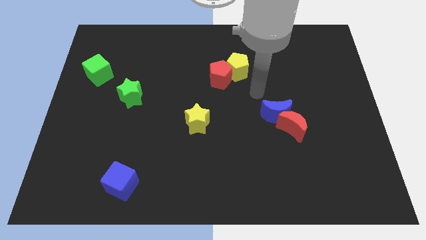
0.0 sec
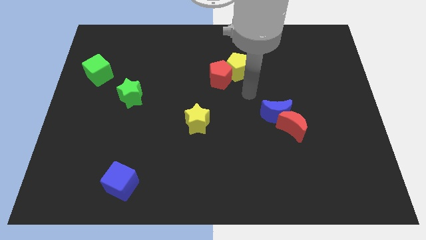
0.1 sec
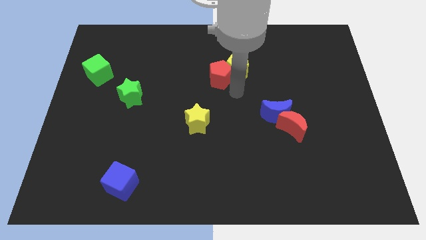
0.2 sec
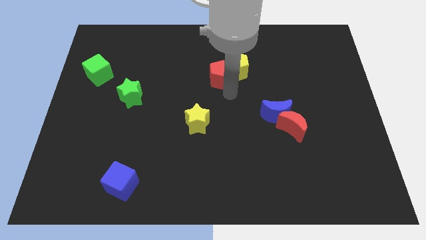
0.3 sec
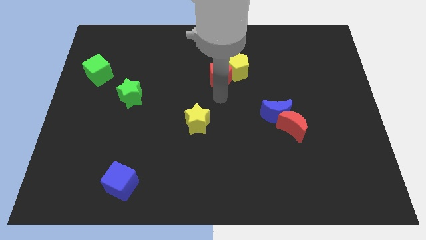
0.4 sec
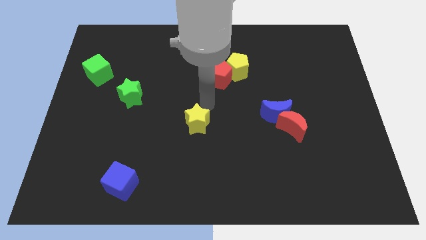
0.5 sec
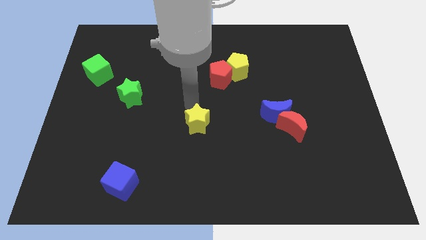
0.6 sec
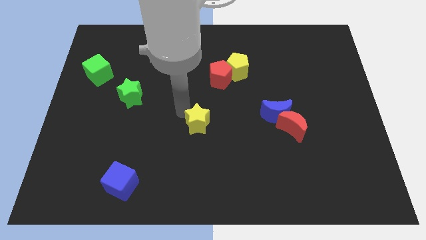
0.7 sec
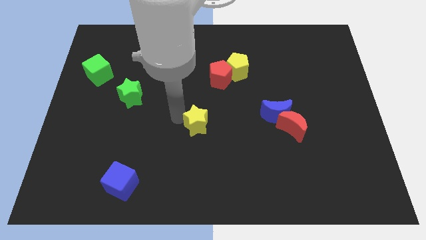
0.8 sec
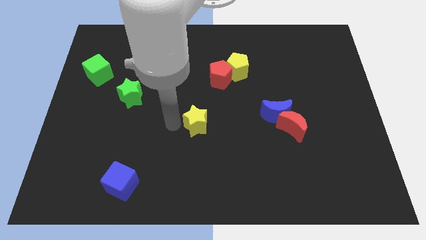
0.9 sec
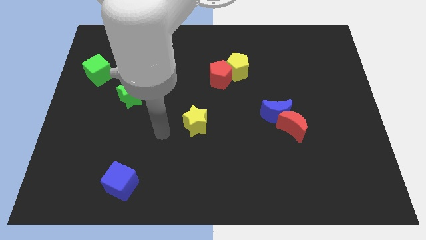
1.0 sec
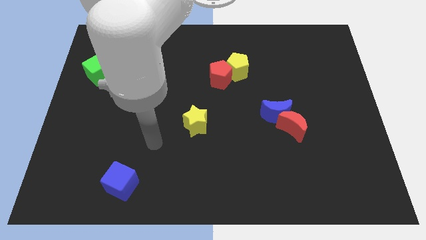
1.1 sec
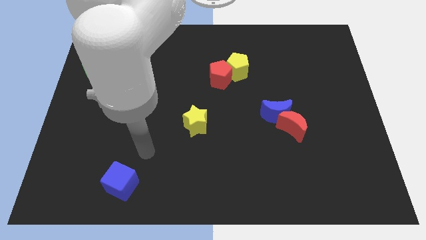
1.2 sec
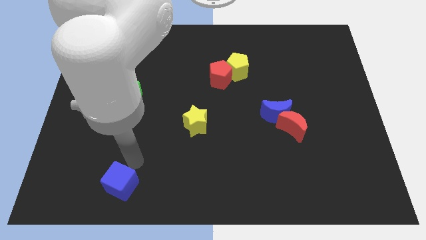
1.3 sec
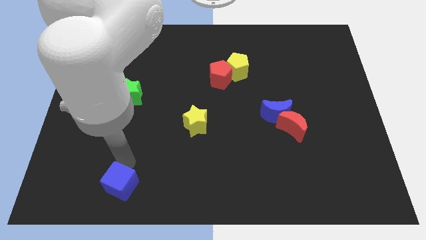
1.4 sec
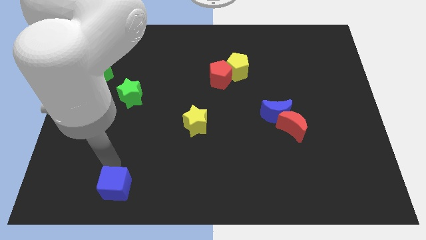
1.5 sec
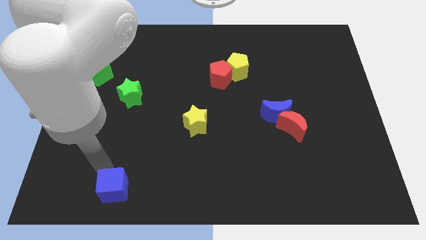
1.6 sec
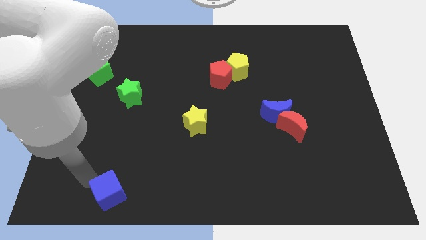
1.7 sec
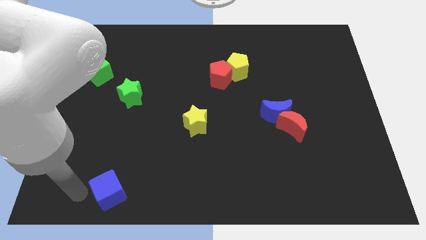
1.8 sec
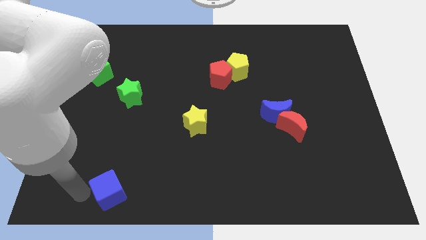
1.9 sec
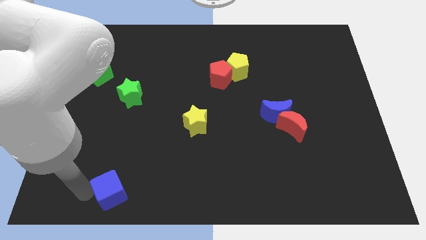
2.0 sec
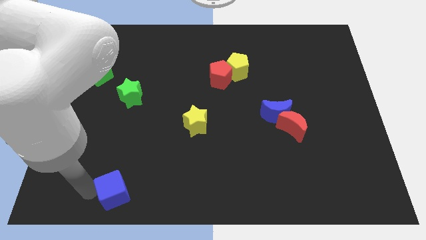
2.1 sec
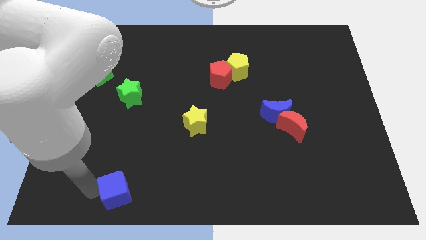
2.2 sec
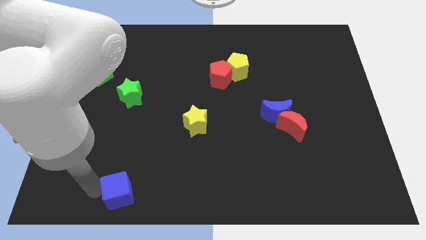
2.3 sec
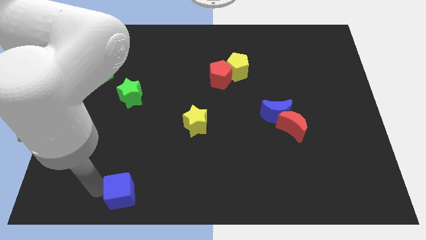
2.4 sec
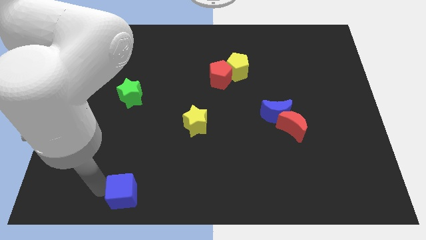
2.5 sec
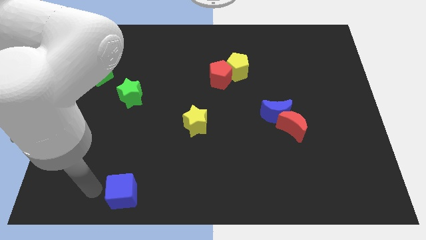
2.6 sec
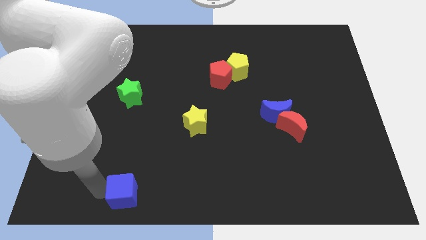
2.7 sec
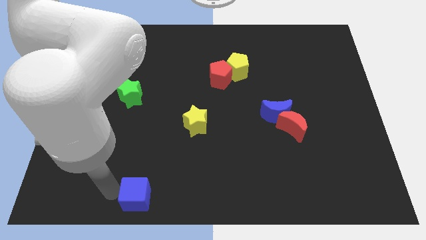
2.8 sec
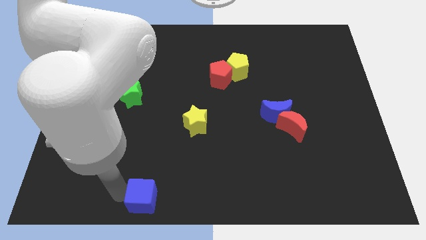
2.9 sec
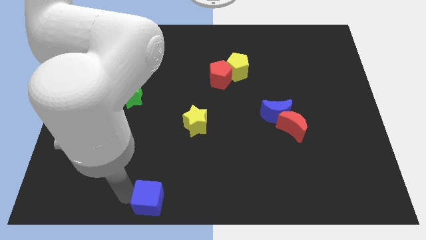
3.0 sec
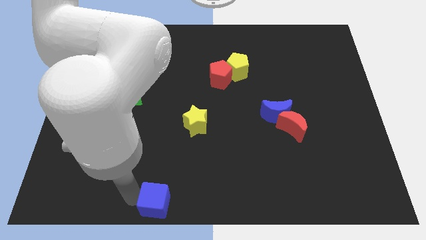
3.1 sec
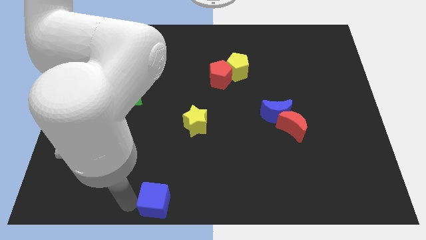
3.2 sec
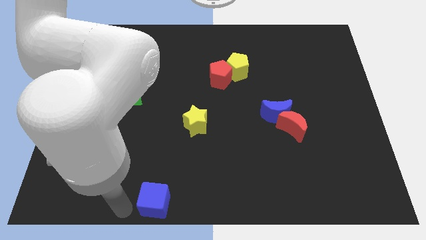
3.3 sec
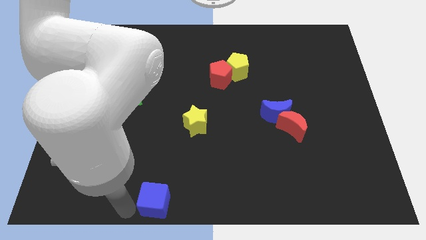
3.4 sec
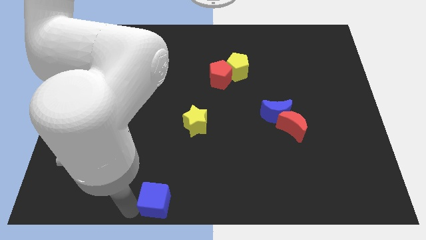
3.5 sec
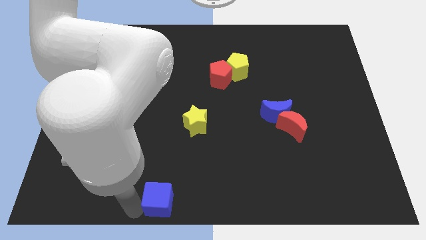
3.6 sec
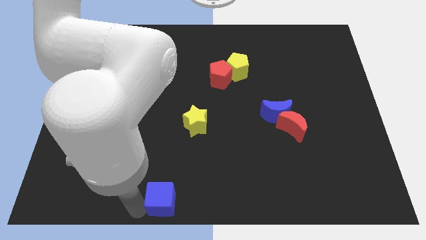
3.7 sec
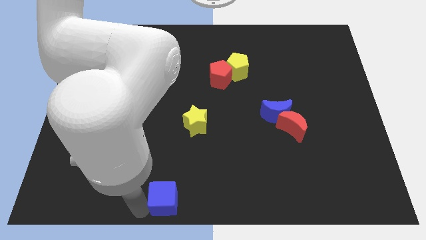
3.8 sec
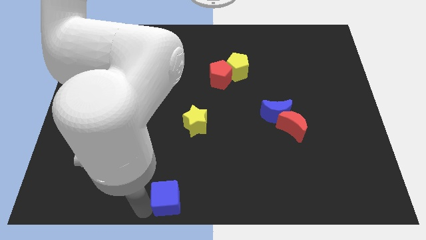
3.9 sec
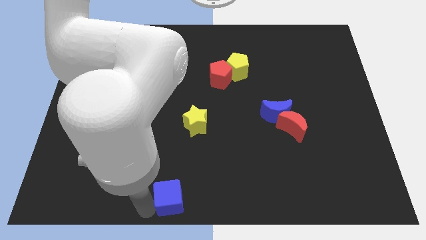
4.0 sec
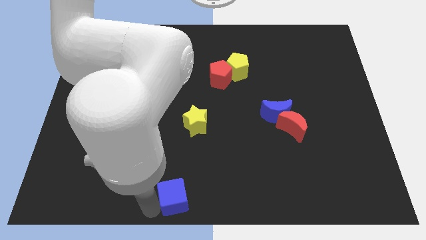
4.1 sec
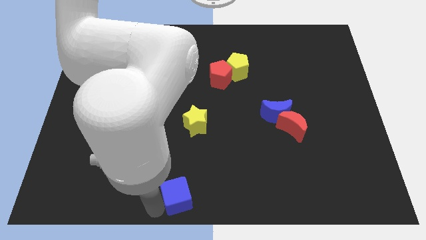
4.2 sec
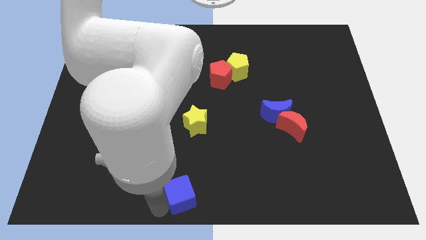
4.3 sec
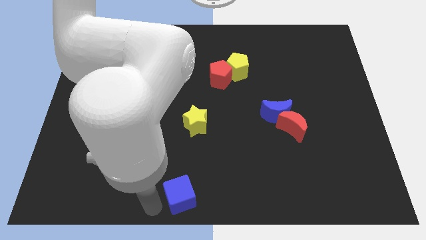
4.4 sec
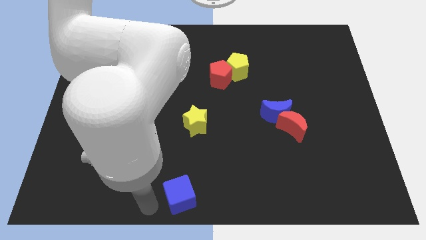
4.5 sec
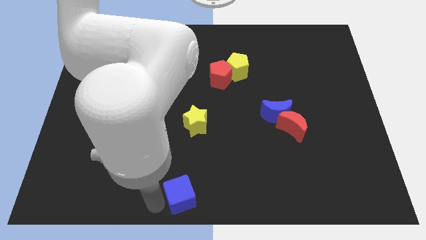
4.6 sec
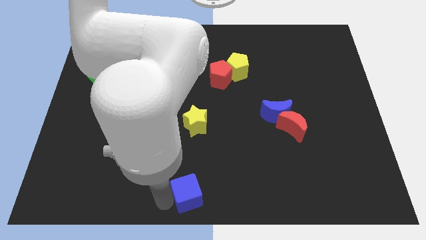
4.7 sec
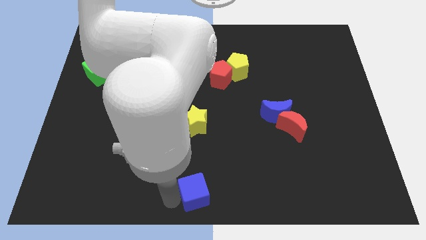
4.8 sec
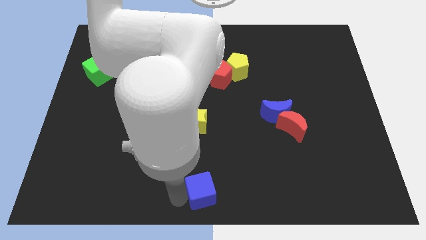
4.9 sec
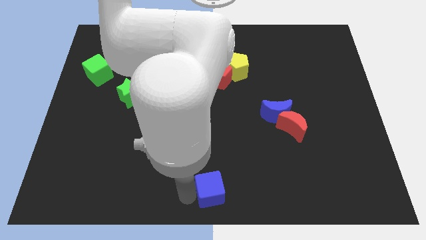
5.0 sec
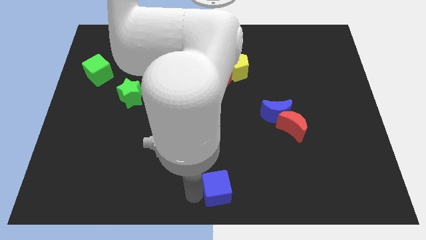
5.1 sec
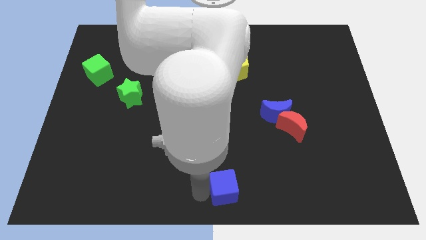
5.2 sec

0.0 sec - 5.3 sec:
push the blue cube to the right

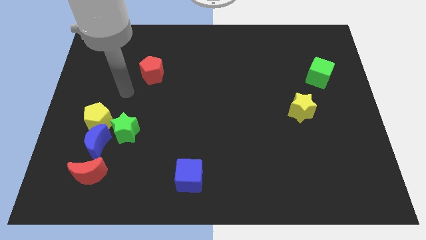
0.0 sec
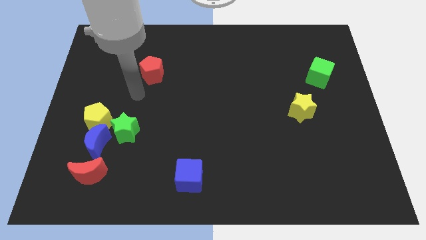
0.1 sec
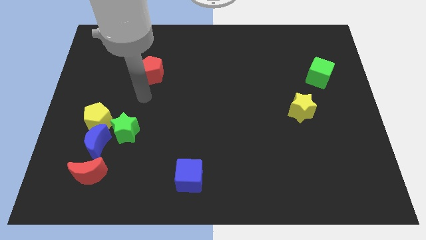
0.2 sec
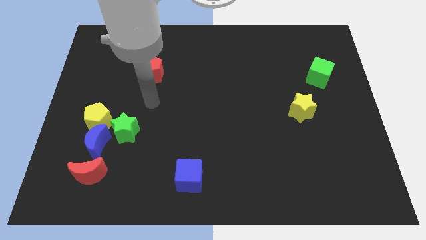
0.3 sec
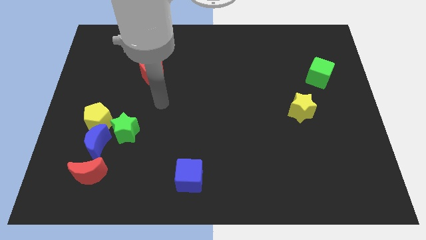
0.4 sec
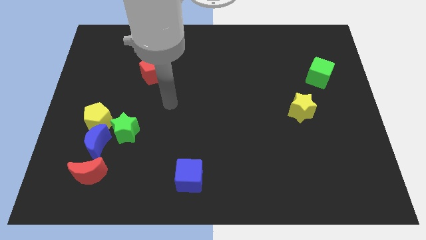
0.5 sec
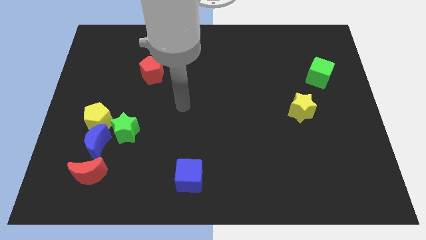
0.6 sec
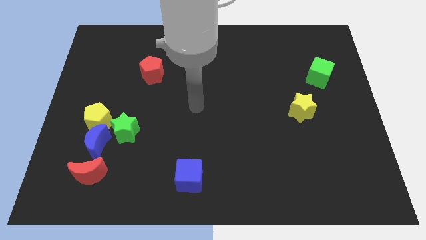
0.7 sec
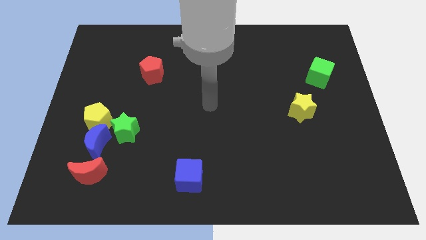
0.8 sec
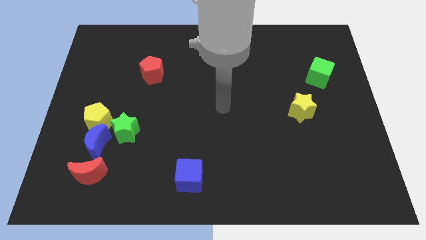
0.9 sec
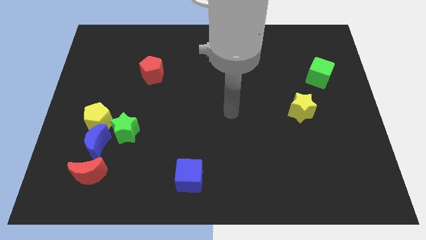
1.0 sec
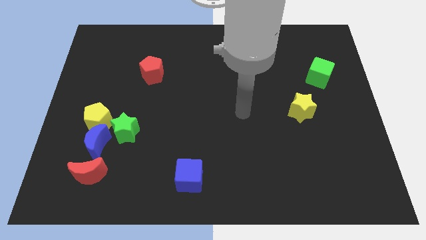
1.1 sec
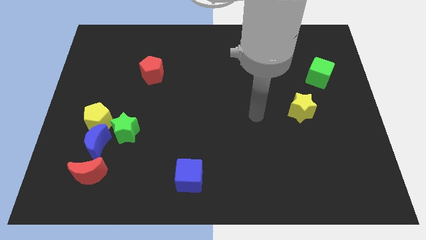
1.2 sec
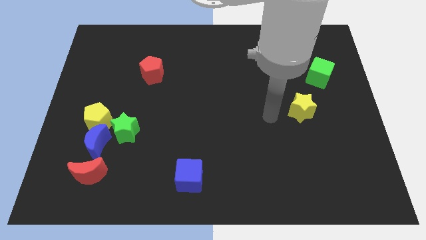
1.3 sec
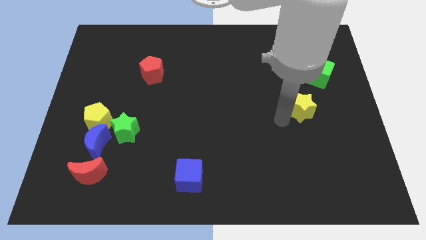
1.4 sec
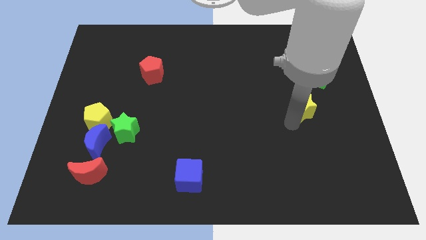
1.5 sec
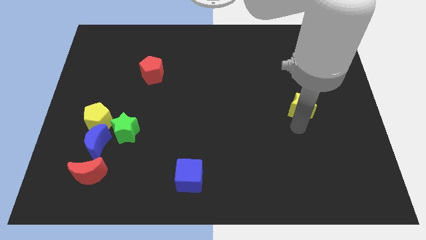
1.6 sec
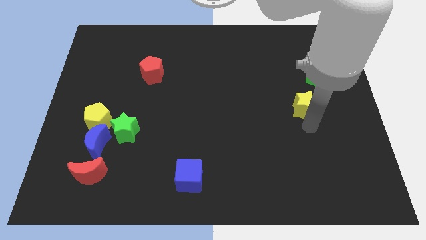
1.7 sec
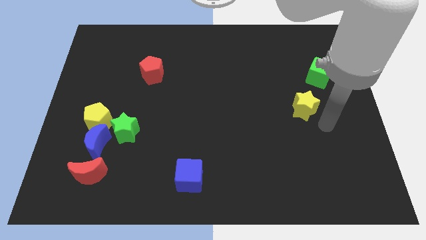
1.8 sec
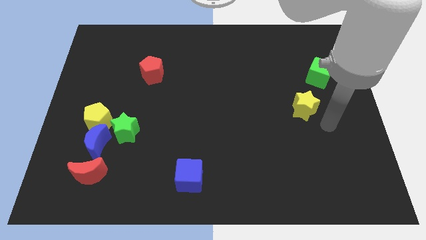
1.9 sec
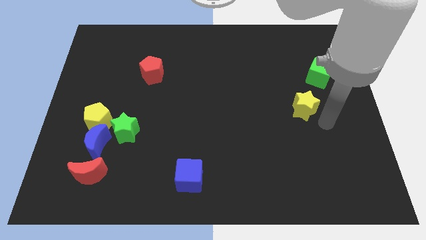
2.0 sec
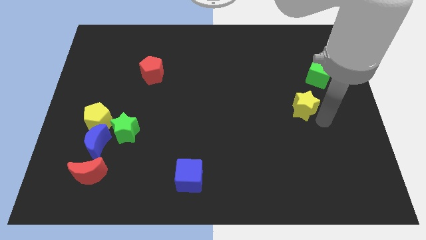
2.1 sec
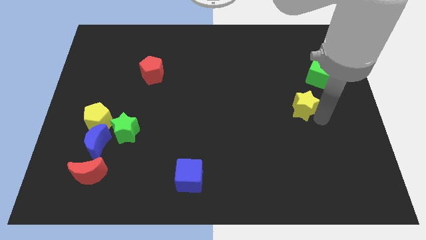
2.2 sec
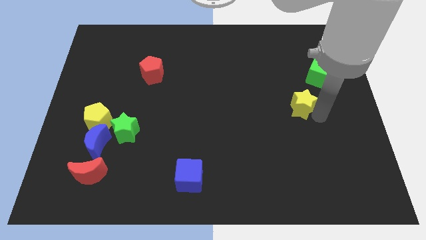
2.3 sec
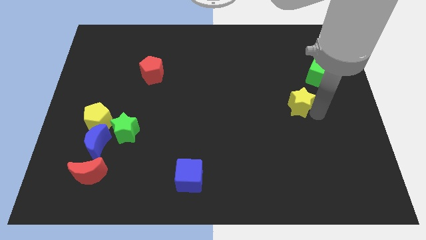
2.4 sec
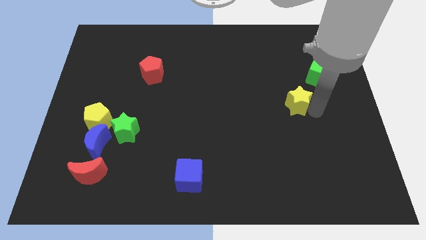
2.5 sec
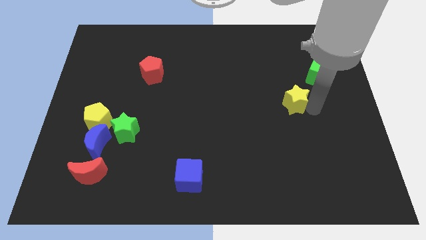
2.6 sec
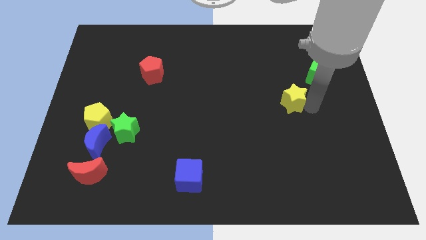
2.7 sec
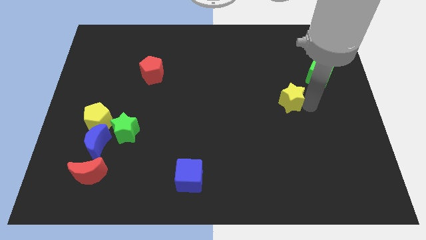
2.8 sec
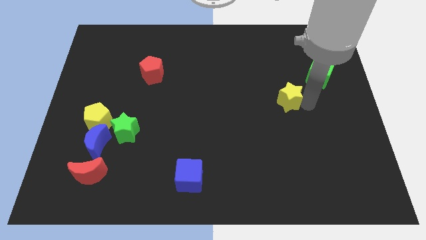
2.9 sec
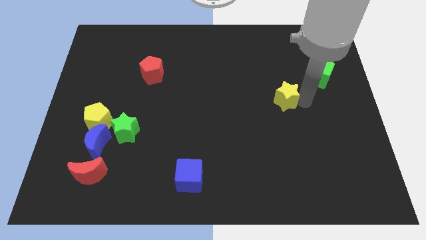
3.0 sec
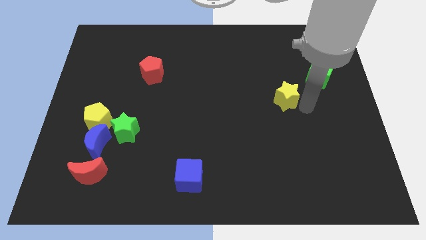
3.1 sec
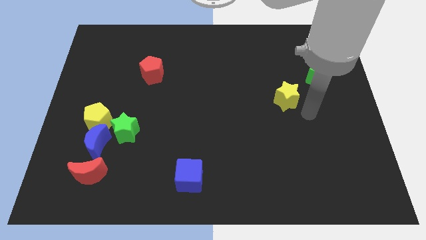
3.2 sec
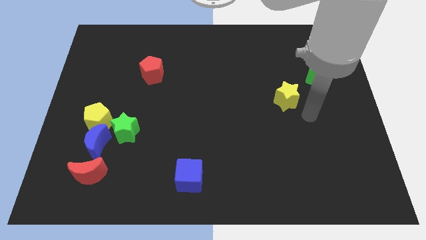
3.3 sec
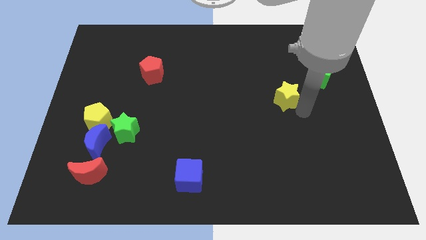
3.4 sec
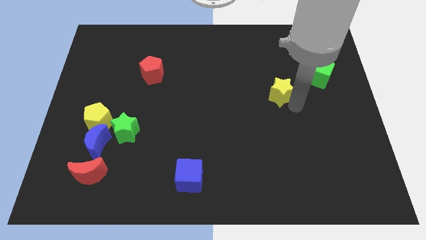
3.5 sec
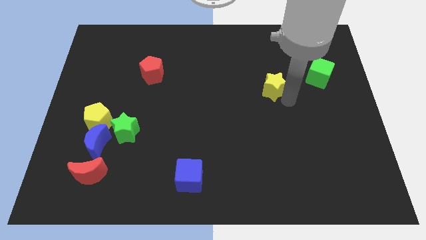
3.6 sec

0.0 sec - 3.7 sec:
push the yellow star slightly upwards and left
